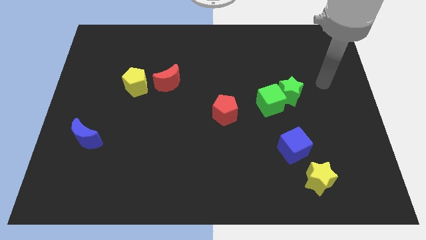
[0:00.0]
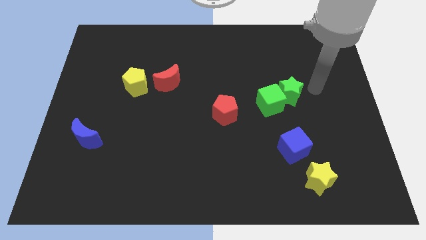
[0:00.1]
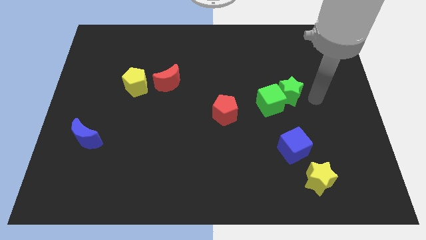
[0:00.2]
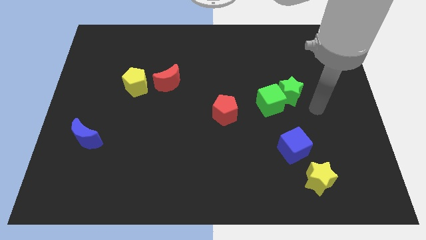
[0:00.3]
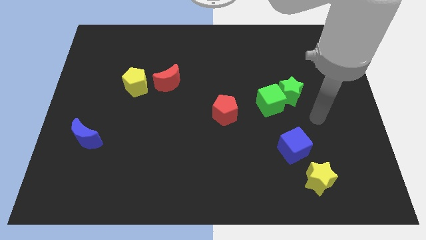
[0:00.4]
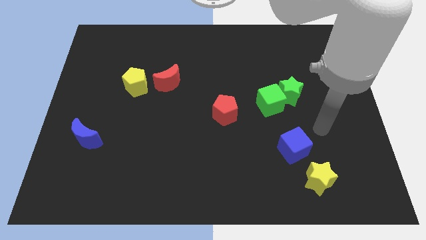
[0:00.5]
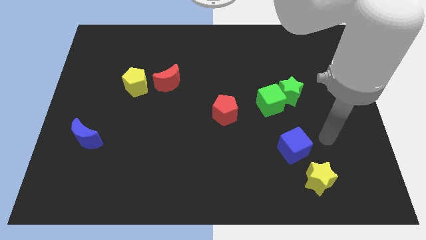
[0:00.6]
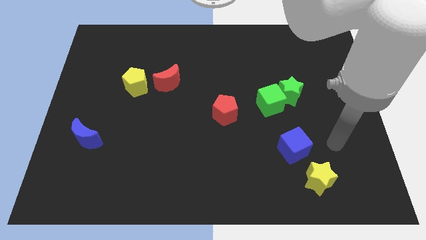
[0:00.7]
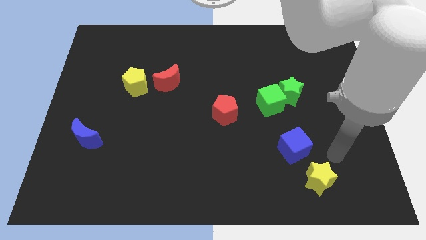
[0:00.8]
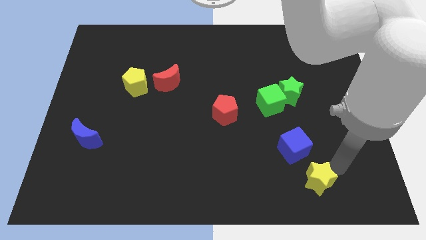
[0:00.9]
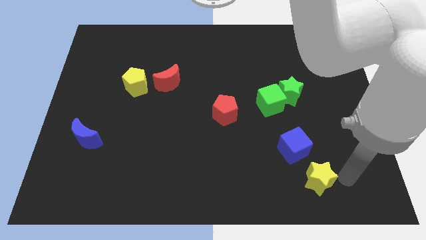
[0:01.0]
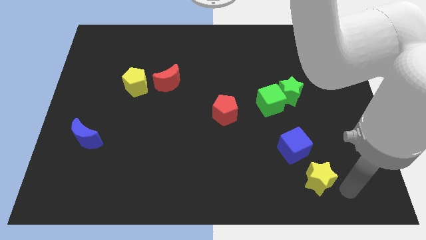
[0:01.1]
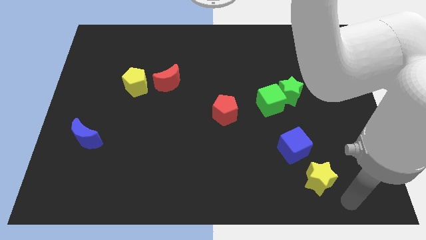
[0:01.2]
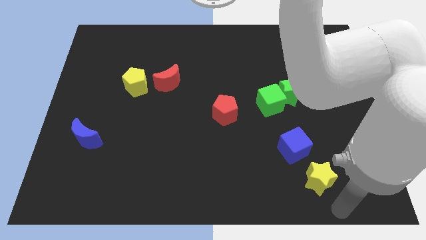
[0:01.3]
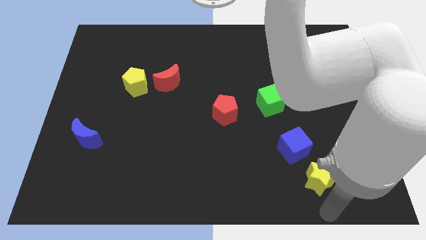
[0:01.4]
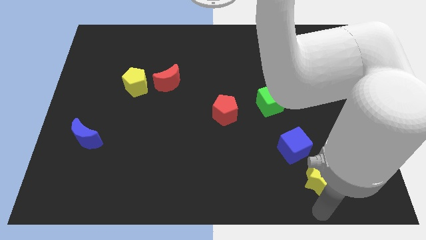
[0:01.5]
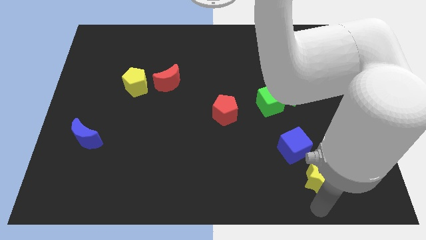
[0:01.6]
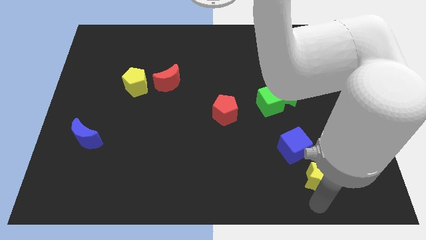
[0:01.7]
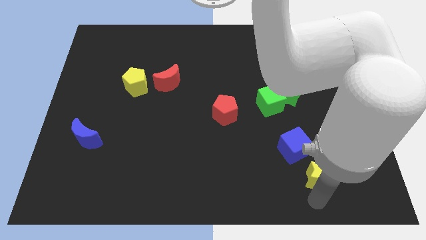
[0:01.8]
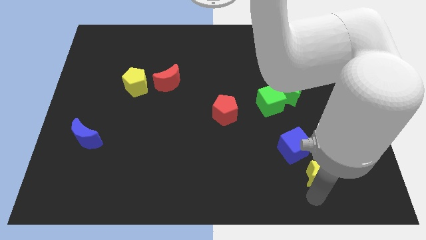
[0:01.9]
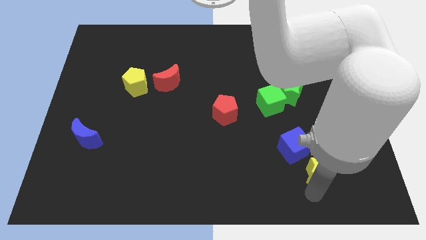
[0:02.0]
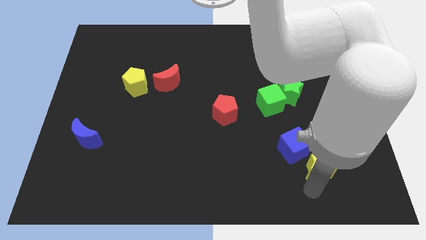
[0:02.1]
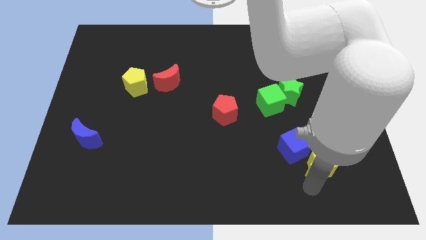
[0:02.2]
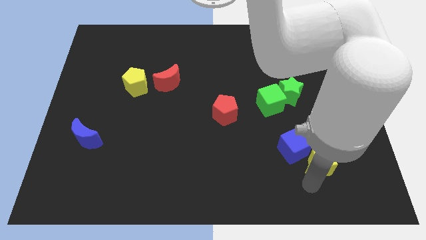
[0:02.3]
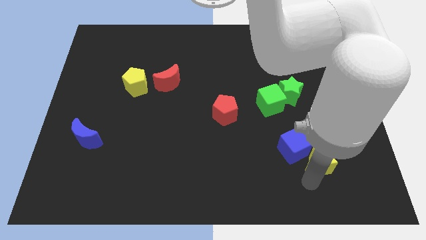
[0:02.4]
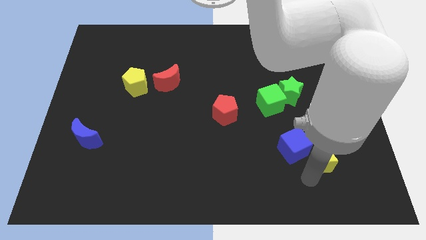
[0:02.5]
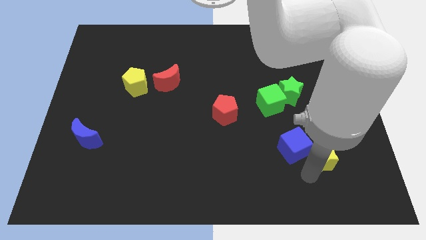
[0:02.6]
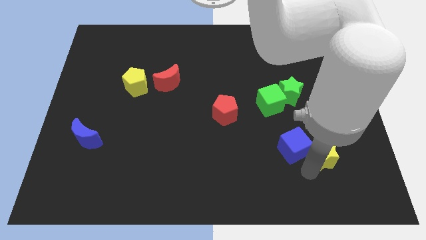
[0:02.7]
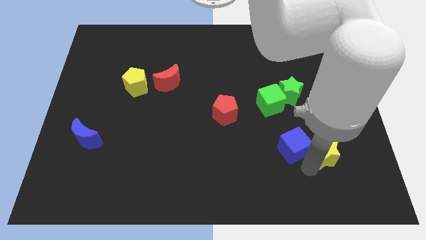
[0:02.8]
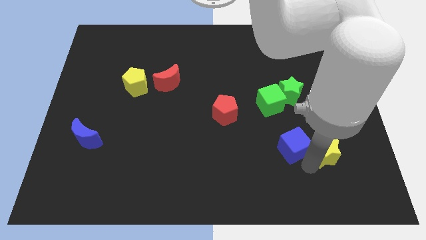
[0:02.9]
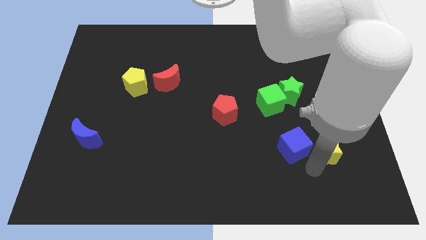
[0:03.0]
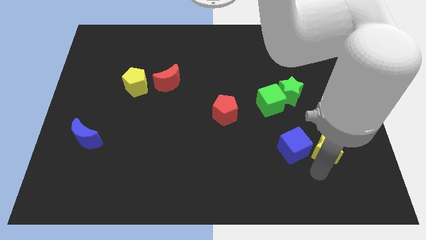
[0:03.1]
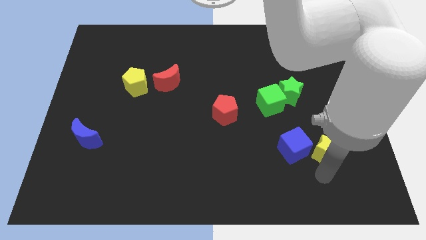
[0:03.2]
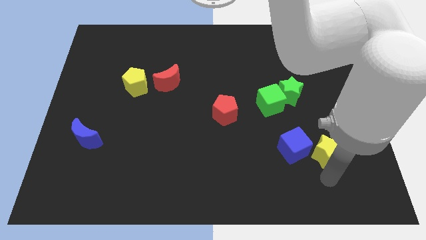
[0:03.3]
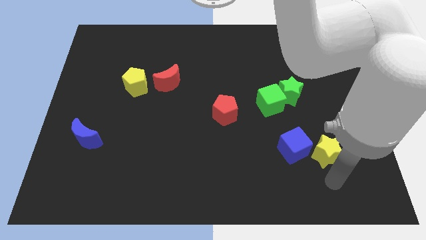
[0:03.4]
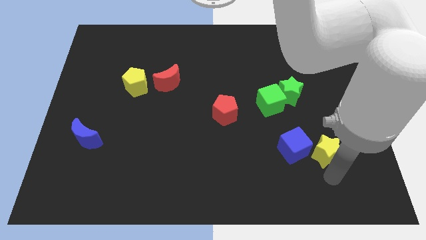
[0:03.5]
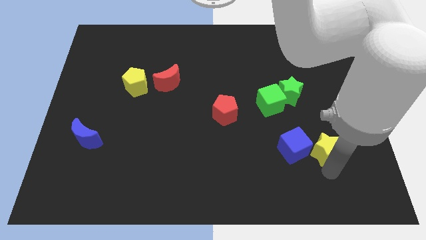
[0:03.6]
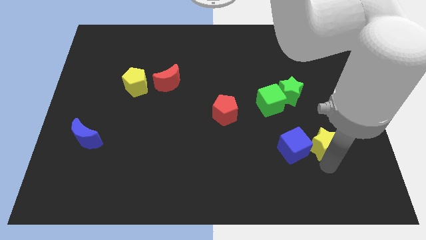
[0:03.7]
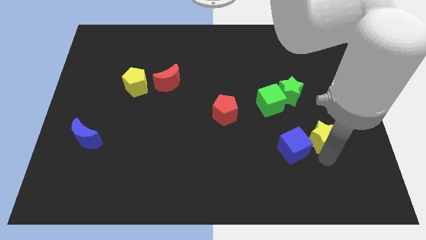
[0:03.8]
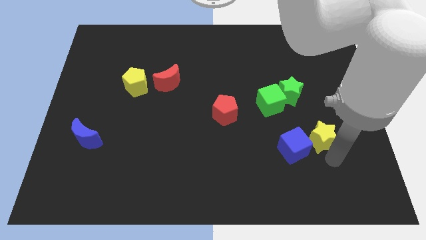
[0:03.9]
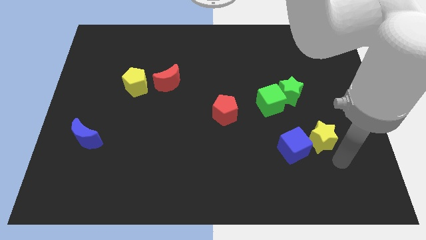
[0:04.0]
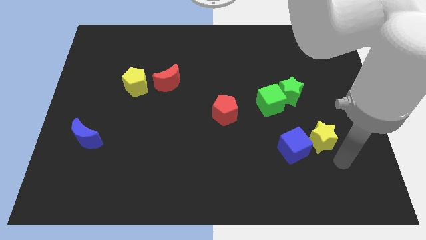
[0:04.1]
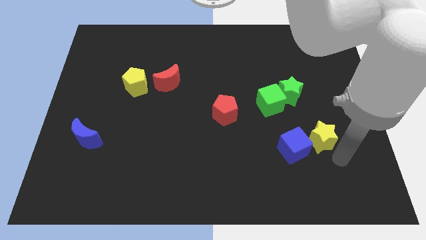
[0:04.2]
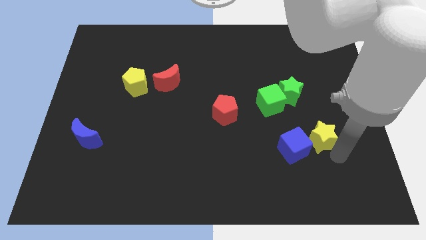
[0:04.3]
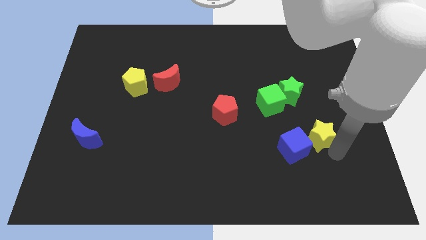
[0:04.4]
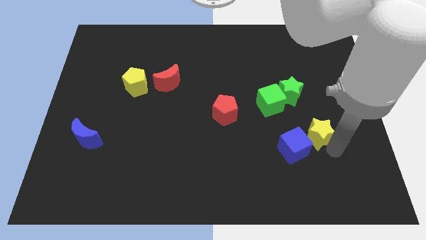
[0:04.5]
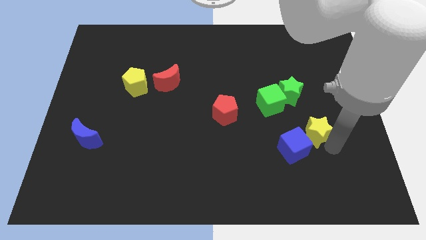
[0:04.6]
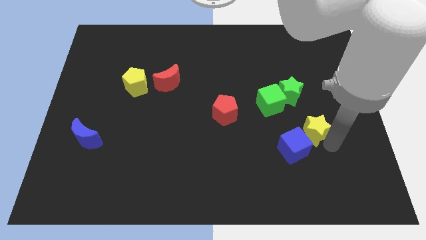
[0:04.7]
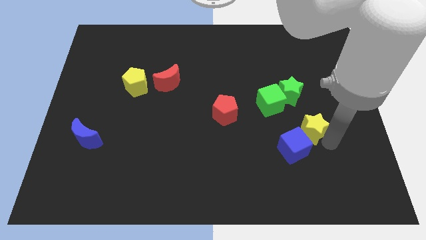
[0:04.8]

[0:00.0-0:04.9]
move the yellow star to the top of the blue cube

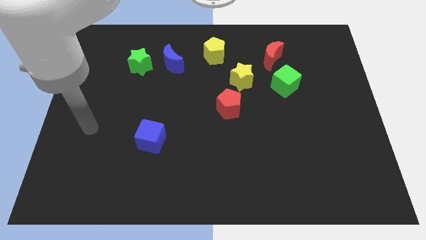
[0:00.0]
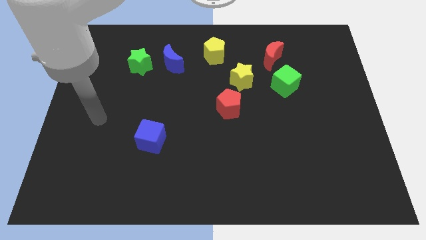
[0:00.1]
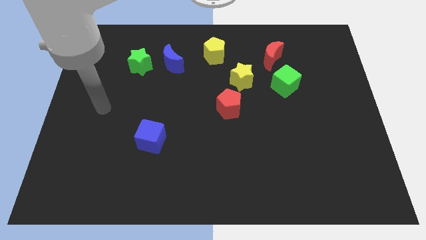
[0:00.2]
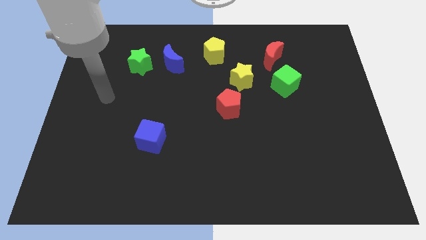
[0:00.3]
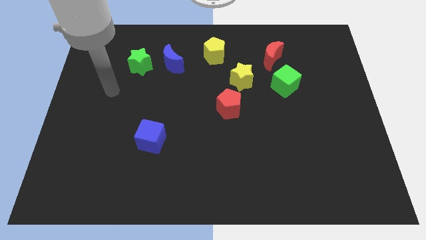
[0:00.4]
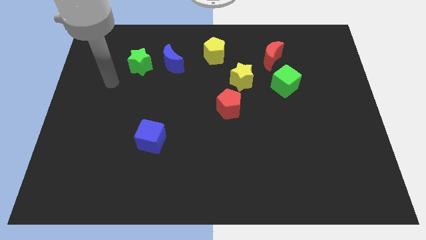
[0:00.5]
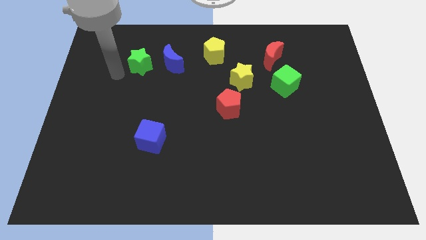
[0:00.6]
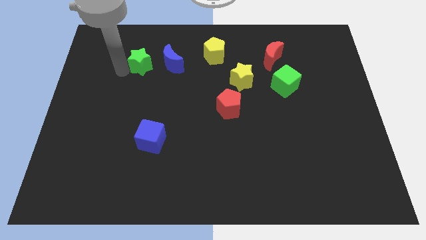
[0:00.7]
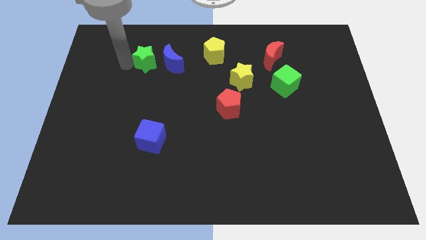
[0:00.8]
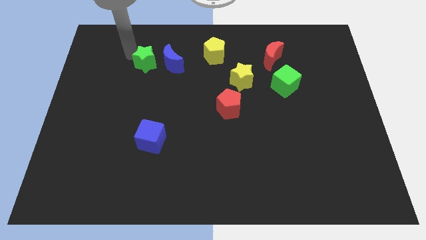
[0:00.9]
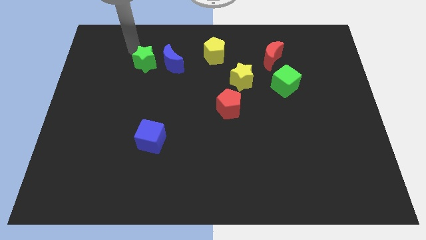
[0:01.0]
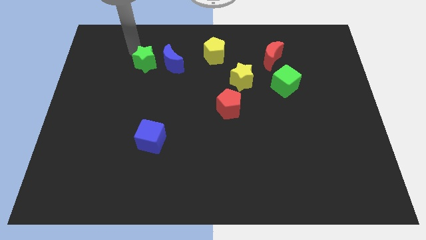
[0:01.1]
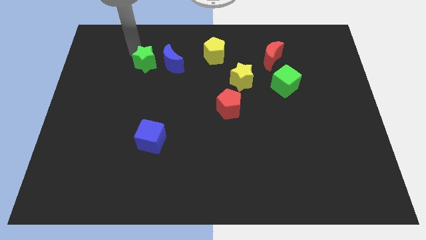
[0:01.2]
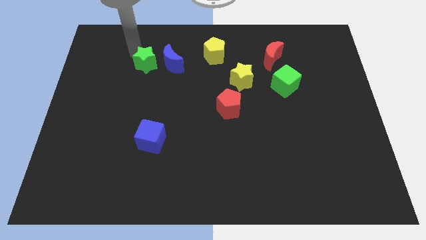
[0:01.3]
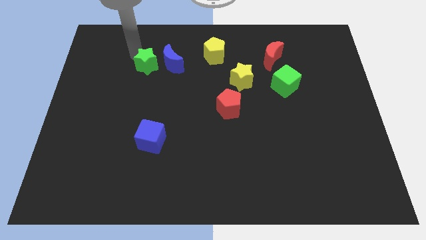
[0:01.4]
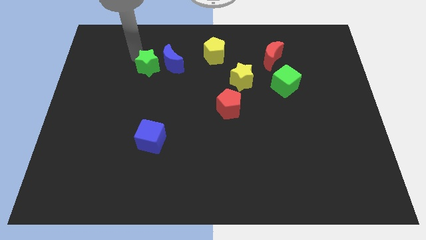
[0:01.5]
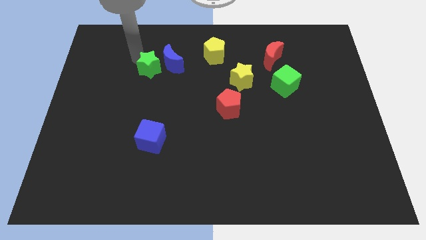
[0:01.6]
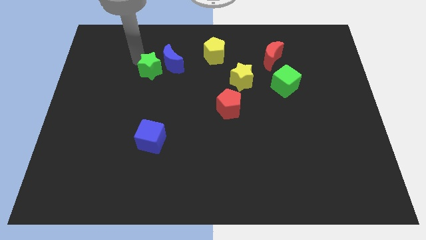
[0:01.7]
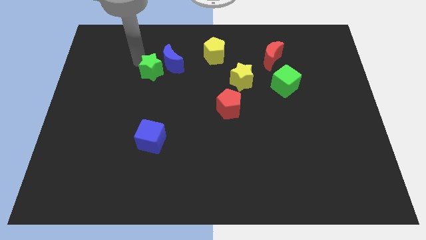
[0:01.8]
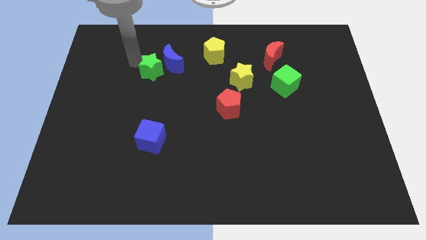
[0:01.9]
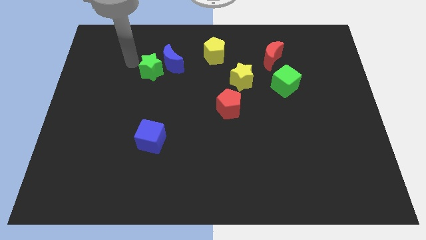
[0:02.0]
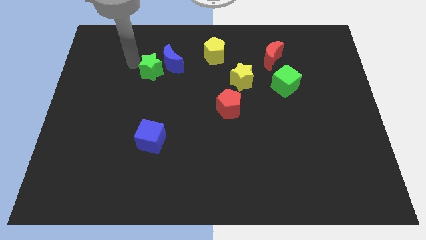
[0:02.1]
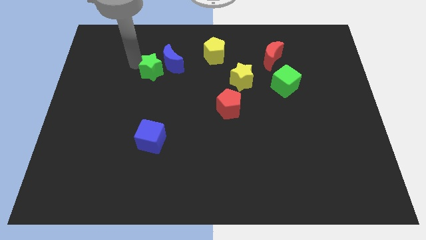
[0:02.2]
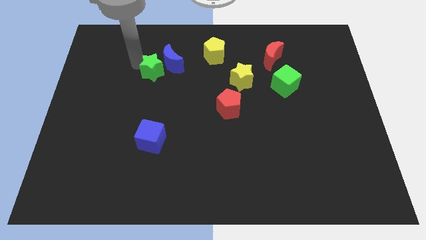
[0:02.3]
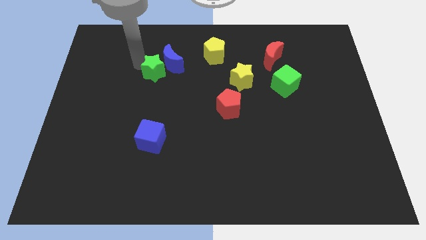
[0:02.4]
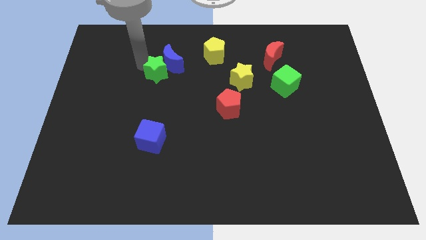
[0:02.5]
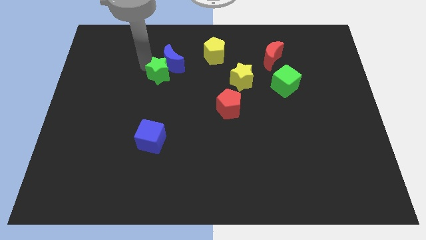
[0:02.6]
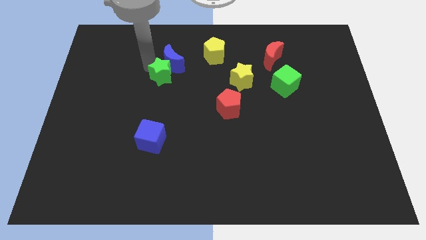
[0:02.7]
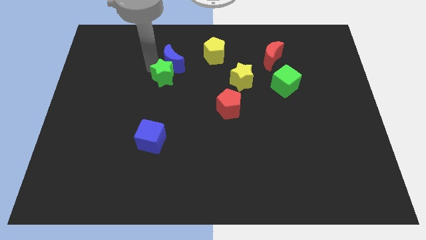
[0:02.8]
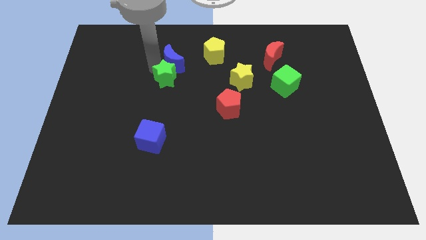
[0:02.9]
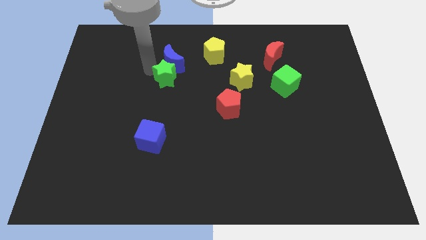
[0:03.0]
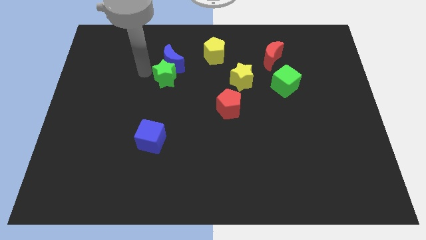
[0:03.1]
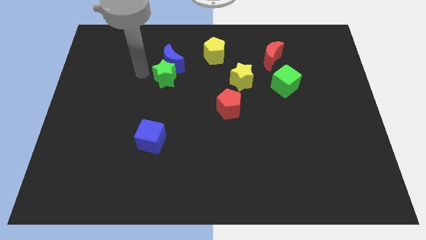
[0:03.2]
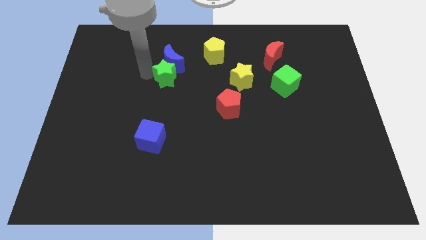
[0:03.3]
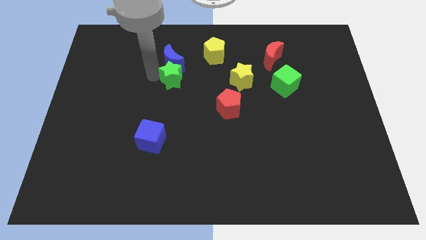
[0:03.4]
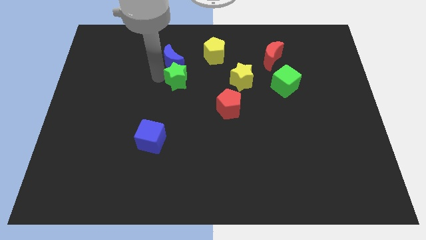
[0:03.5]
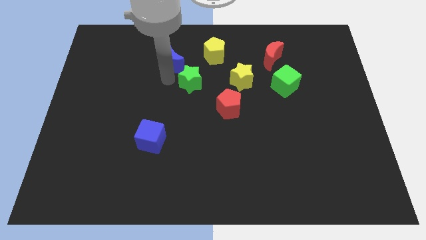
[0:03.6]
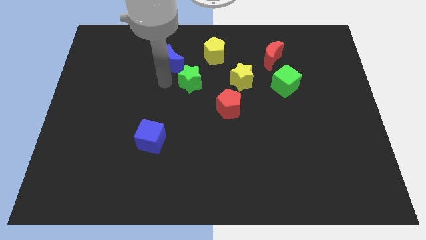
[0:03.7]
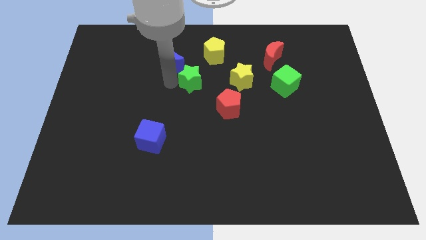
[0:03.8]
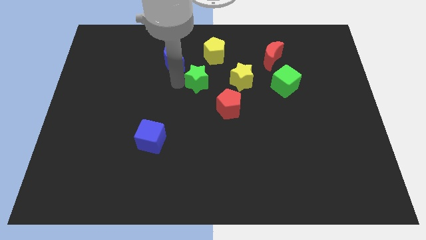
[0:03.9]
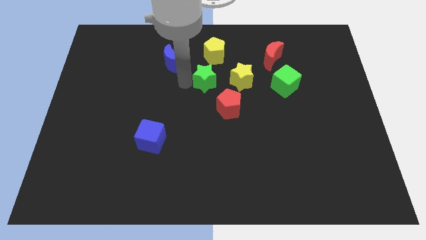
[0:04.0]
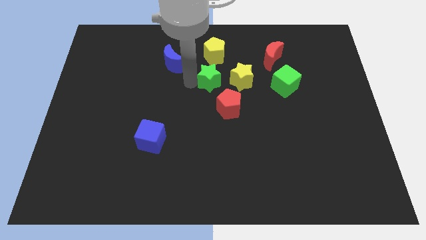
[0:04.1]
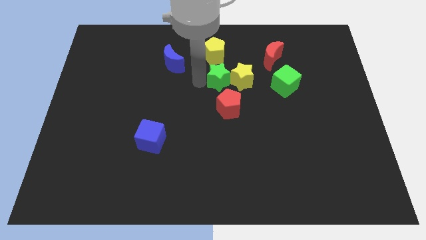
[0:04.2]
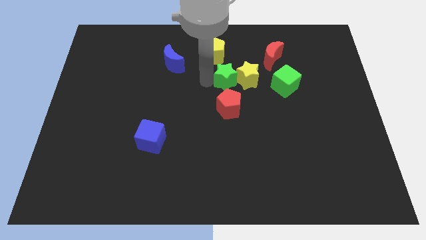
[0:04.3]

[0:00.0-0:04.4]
push the green star to the left side of the green cube
